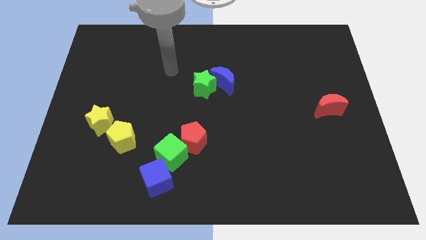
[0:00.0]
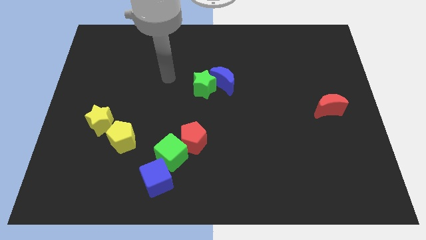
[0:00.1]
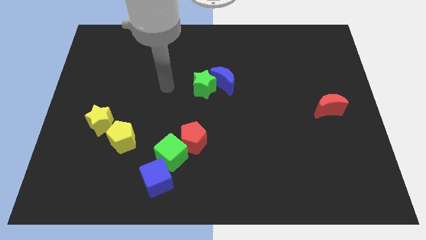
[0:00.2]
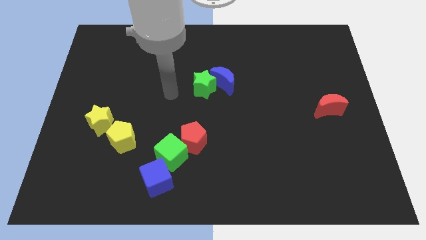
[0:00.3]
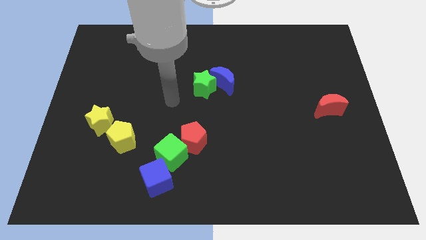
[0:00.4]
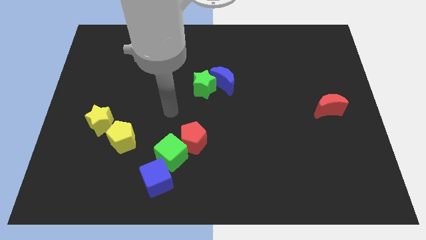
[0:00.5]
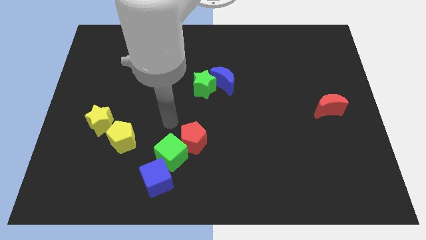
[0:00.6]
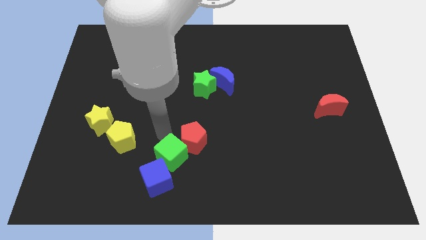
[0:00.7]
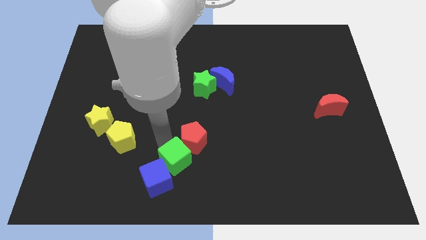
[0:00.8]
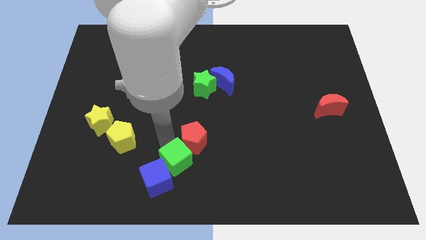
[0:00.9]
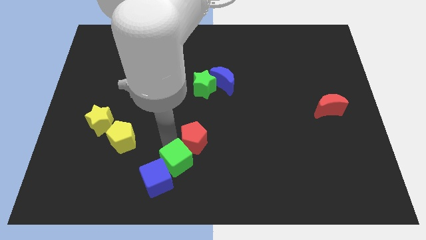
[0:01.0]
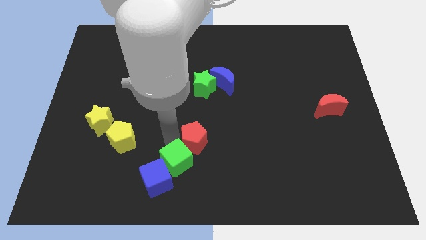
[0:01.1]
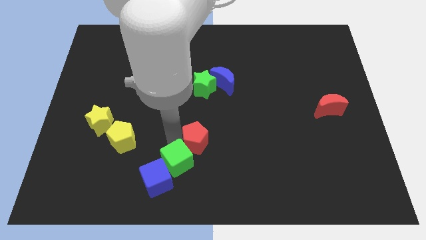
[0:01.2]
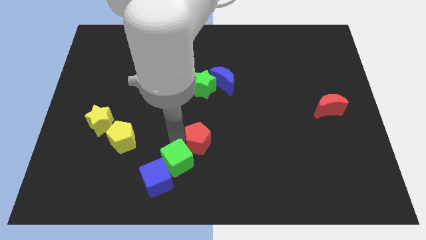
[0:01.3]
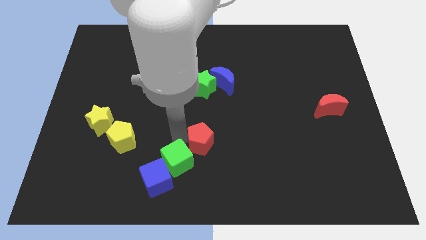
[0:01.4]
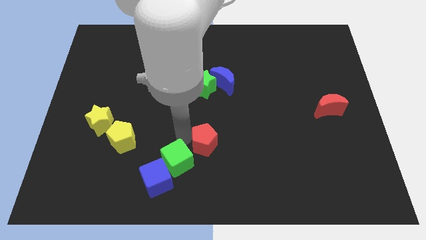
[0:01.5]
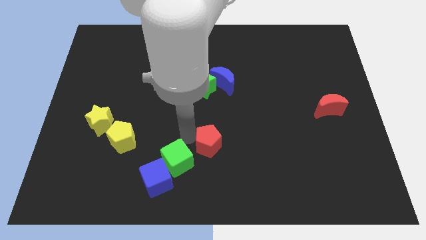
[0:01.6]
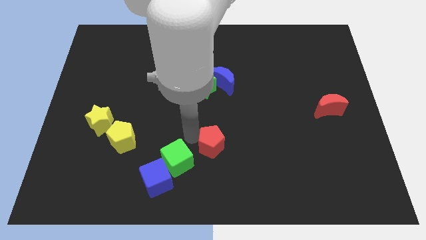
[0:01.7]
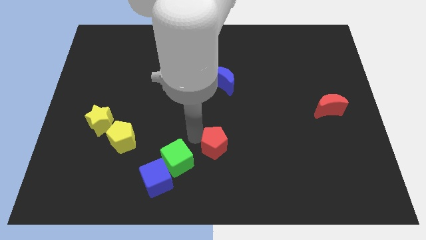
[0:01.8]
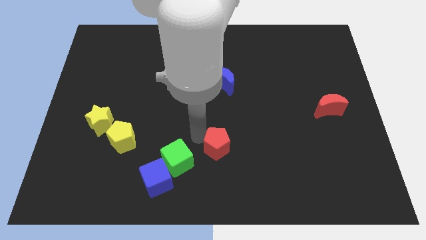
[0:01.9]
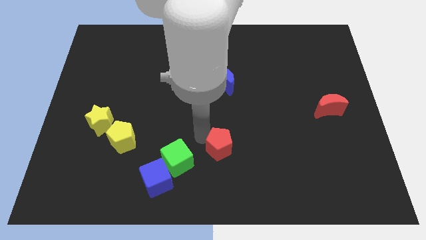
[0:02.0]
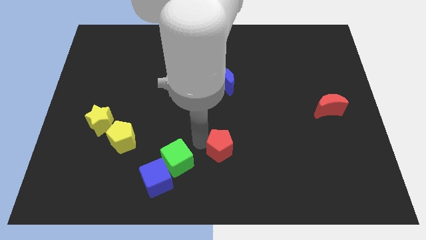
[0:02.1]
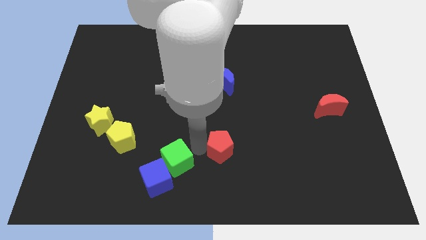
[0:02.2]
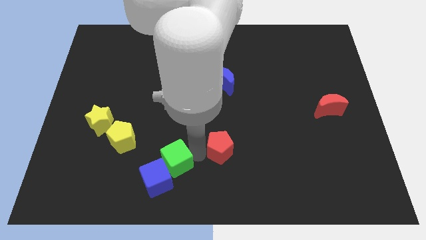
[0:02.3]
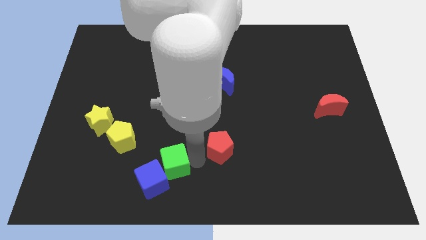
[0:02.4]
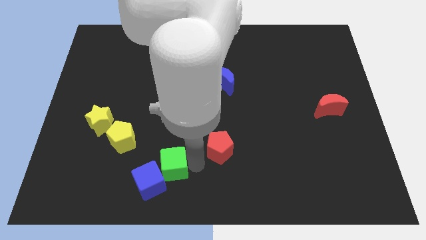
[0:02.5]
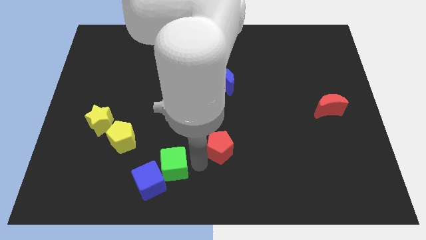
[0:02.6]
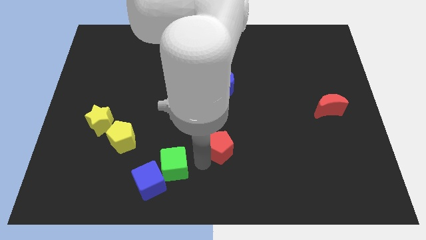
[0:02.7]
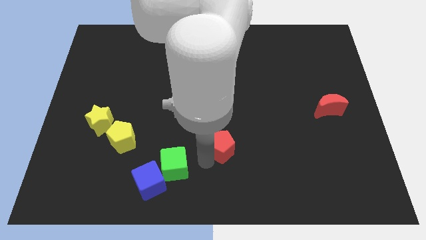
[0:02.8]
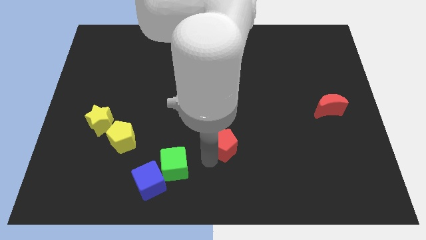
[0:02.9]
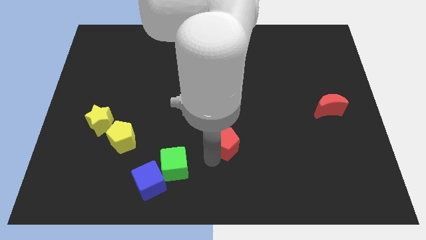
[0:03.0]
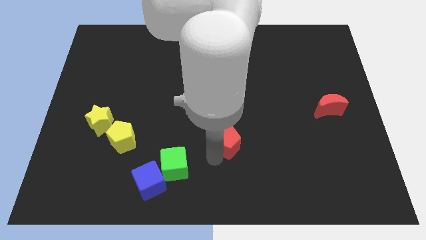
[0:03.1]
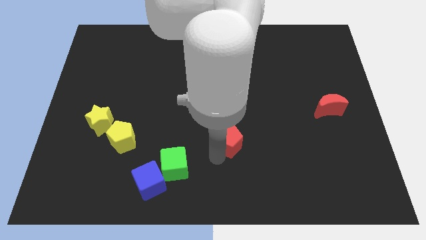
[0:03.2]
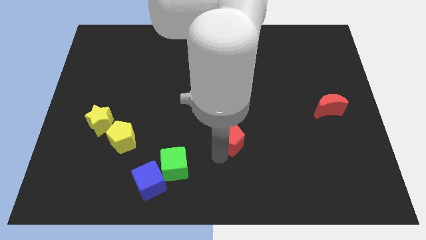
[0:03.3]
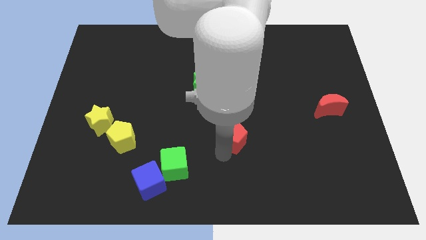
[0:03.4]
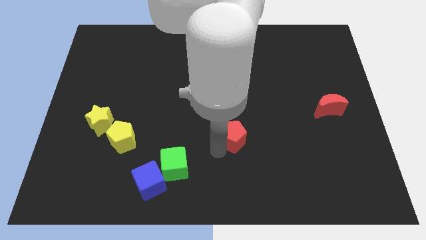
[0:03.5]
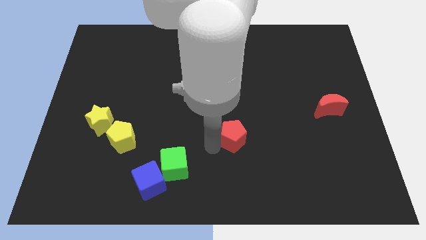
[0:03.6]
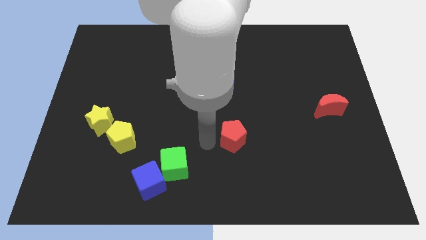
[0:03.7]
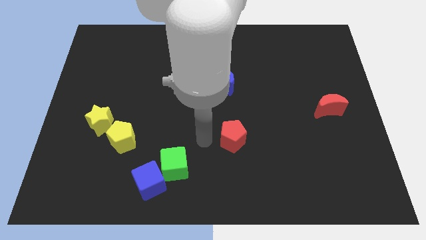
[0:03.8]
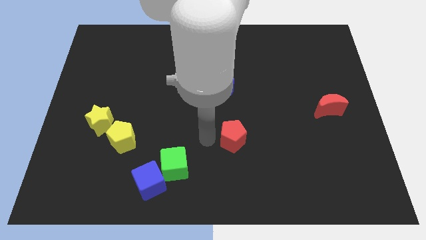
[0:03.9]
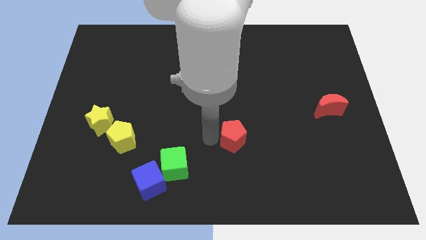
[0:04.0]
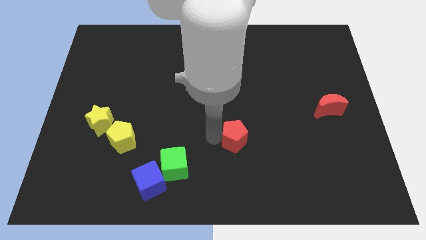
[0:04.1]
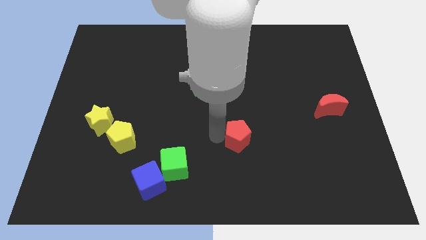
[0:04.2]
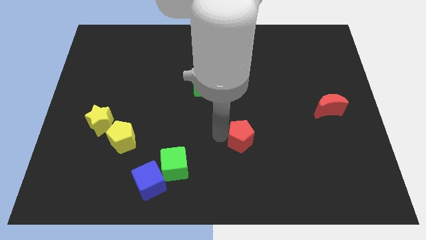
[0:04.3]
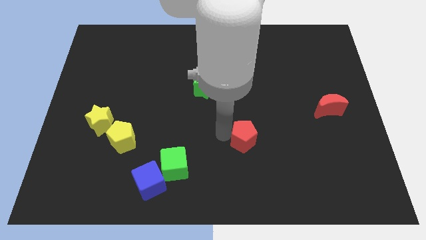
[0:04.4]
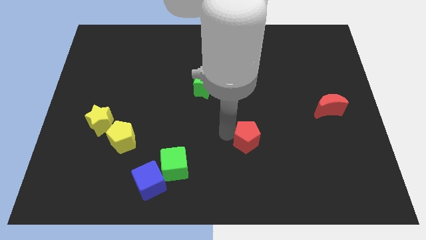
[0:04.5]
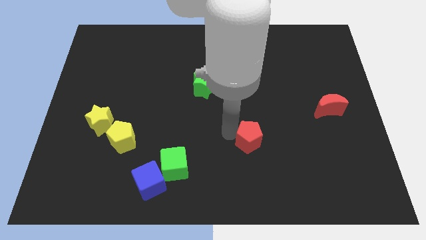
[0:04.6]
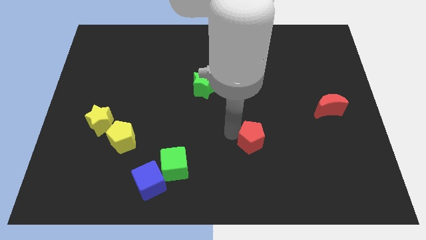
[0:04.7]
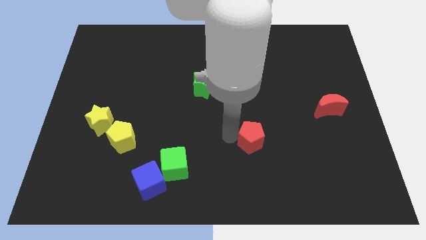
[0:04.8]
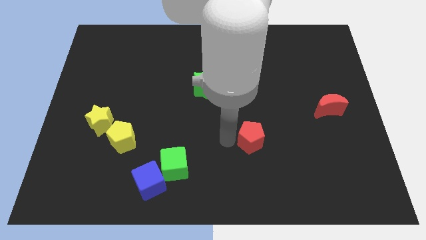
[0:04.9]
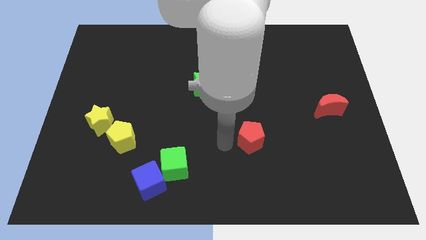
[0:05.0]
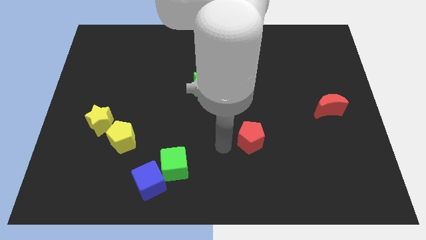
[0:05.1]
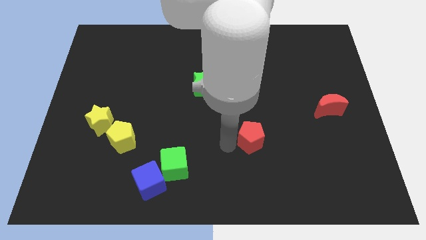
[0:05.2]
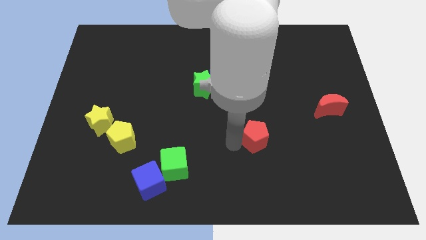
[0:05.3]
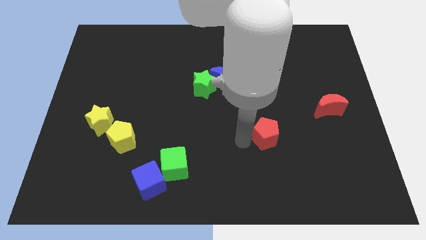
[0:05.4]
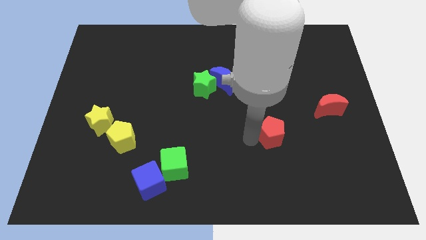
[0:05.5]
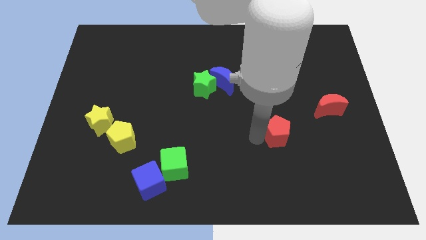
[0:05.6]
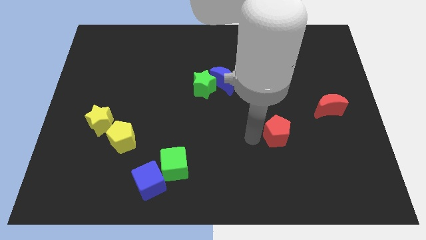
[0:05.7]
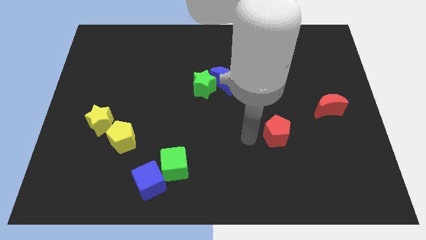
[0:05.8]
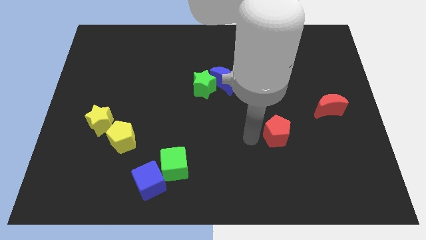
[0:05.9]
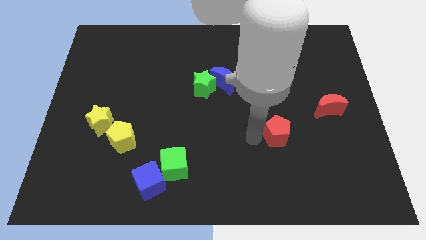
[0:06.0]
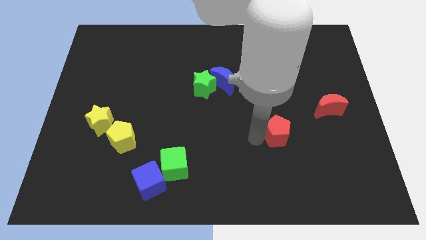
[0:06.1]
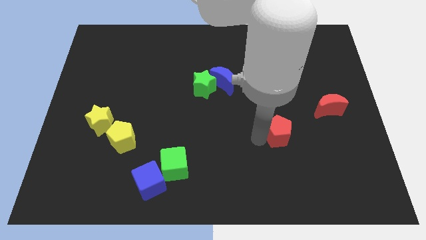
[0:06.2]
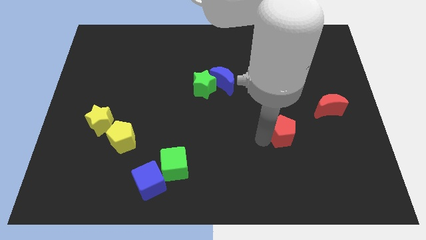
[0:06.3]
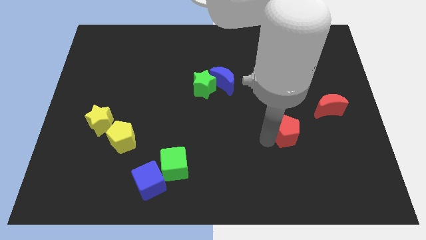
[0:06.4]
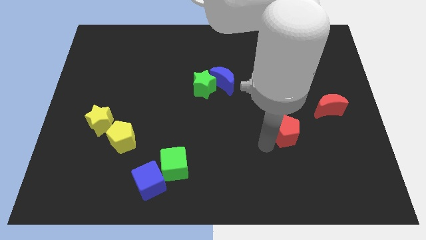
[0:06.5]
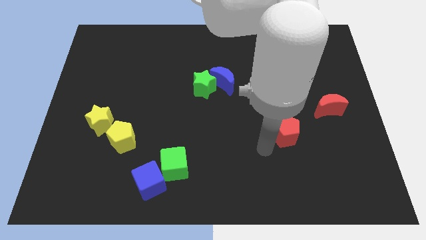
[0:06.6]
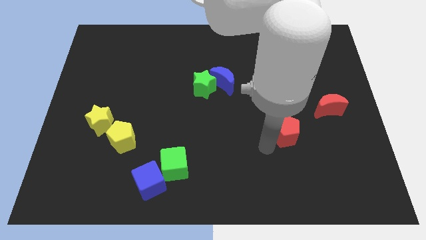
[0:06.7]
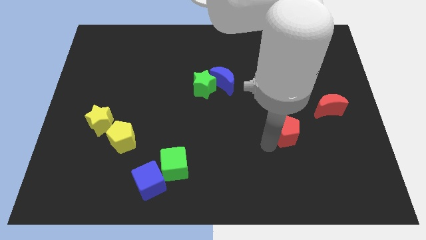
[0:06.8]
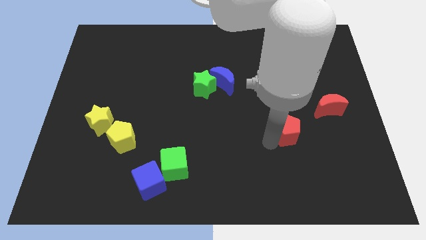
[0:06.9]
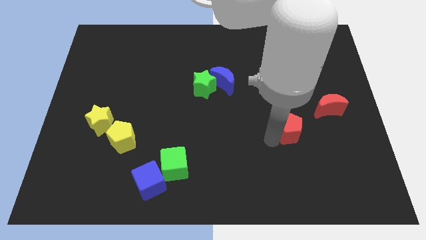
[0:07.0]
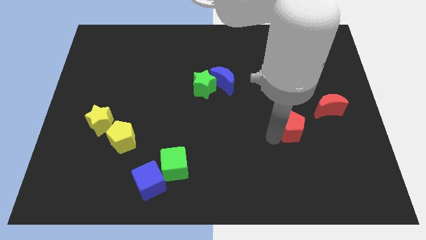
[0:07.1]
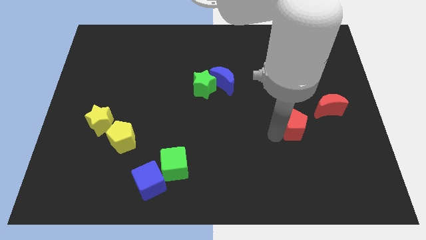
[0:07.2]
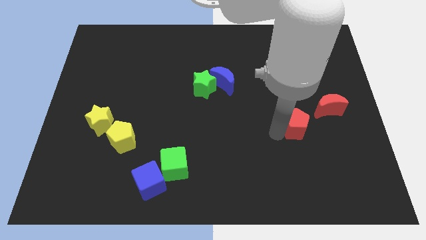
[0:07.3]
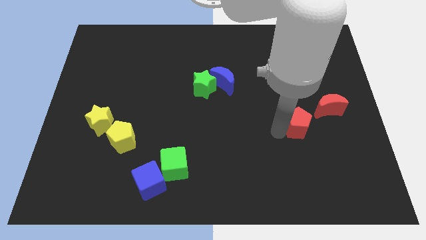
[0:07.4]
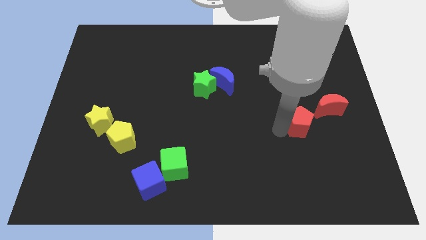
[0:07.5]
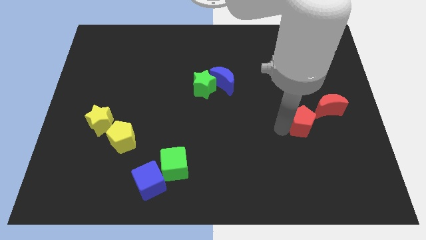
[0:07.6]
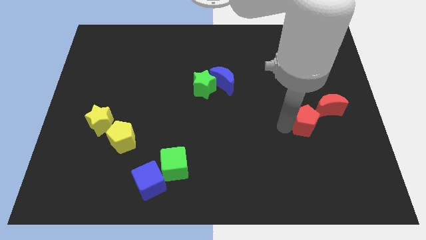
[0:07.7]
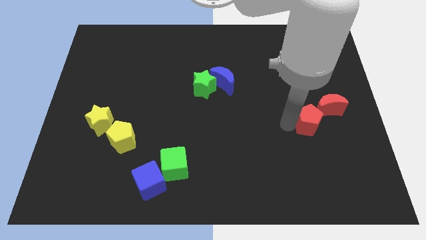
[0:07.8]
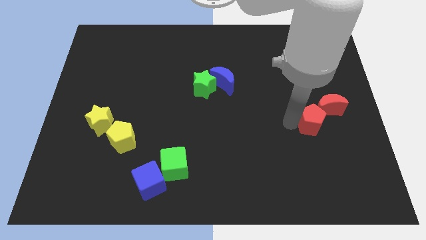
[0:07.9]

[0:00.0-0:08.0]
push the red pentagon next to the red moon
